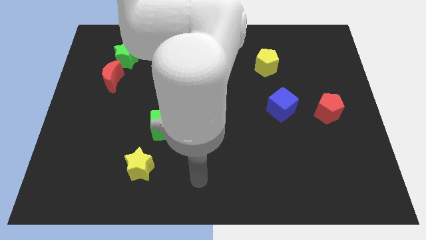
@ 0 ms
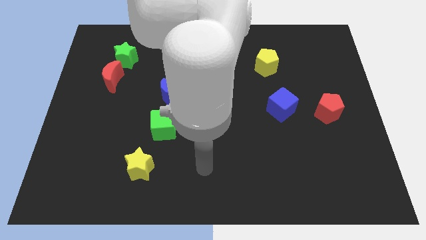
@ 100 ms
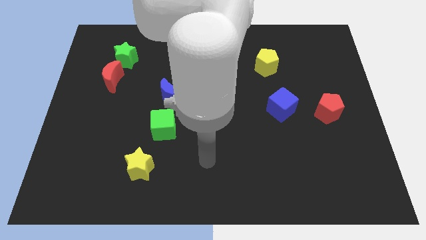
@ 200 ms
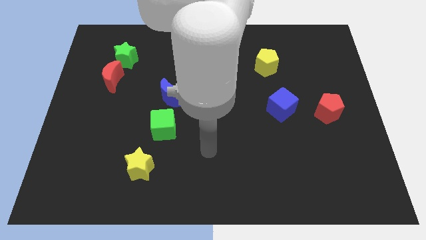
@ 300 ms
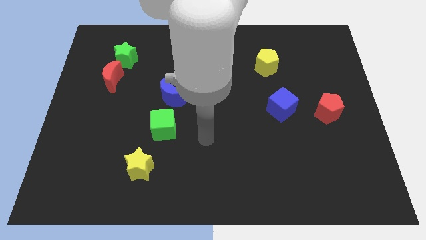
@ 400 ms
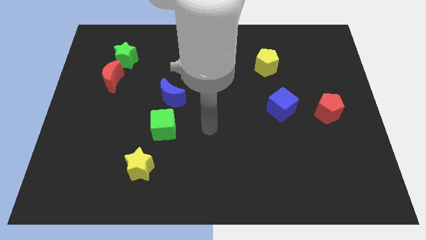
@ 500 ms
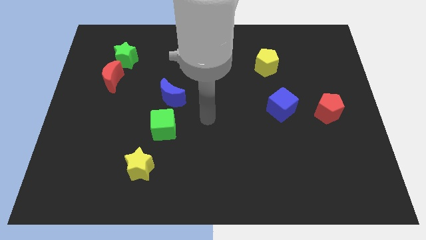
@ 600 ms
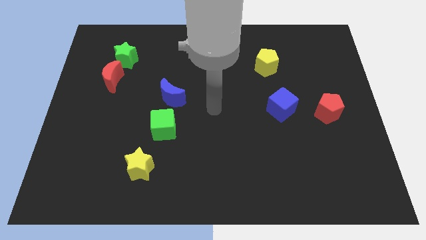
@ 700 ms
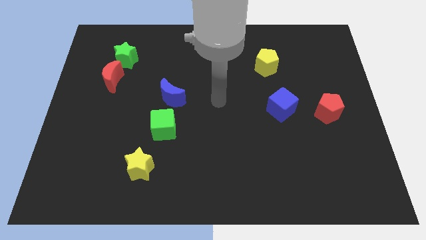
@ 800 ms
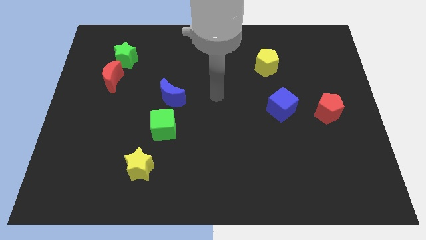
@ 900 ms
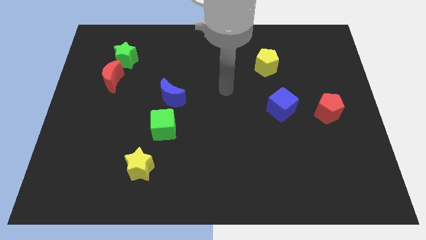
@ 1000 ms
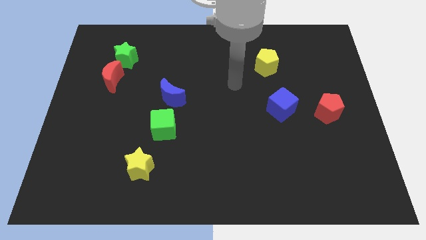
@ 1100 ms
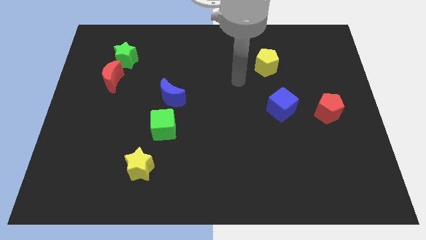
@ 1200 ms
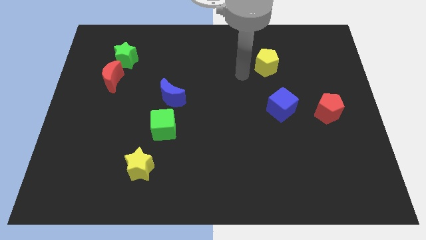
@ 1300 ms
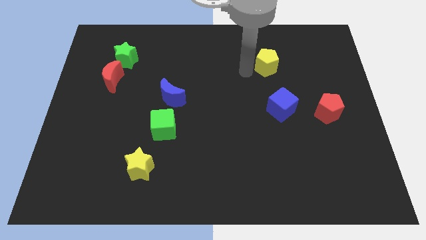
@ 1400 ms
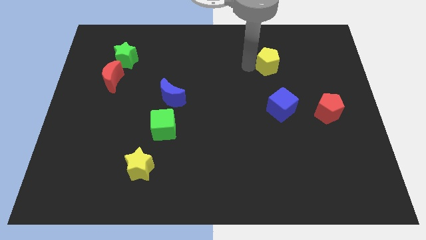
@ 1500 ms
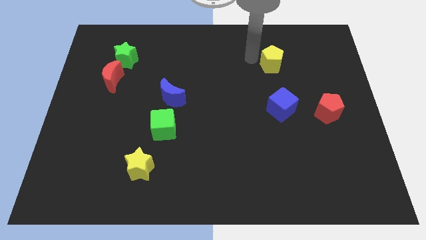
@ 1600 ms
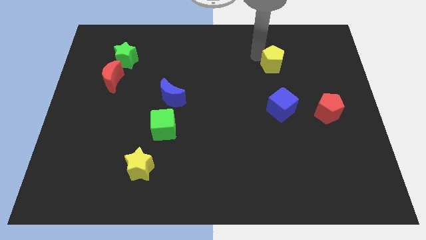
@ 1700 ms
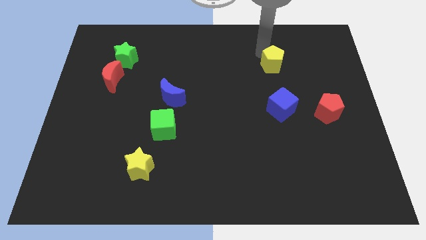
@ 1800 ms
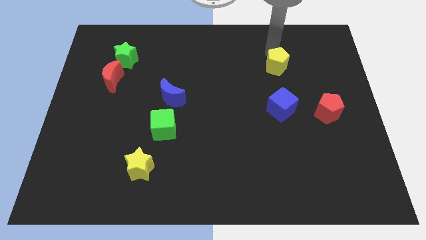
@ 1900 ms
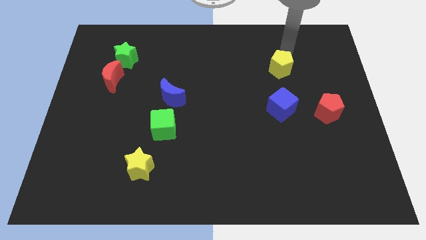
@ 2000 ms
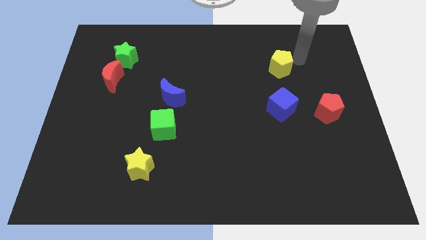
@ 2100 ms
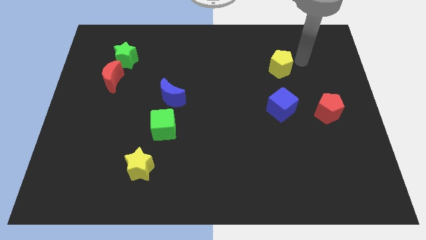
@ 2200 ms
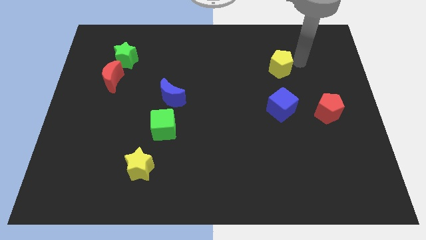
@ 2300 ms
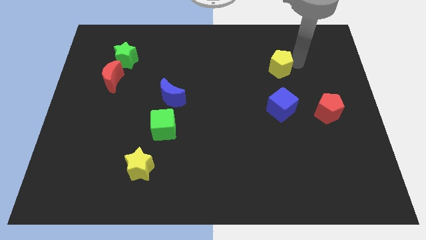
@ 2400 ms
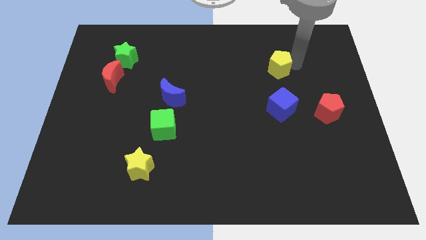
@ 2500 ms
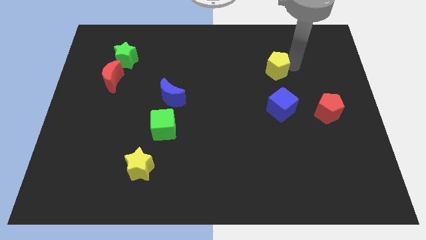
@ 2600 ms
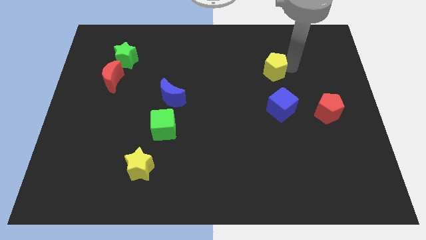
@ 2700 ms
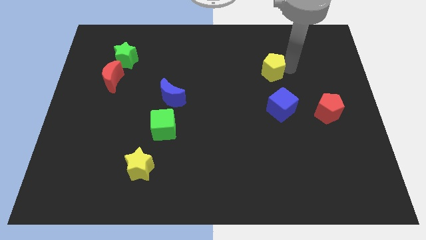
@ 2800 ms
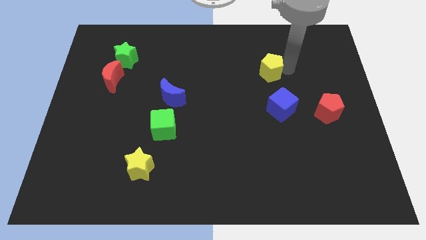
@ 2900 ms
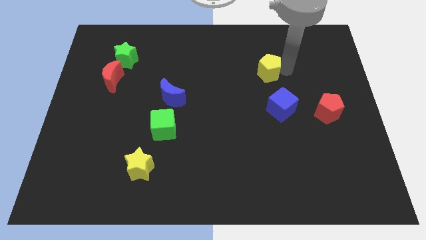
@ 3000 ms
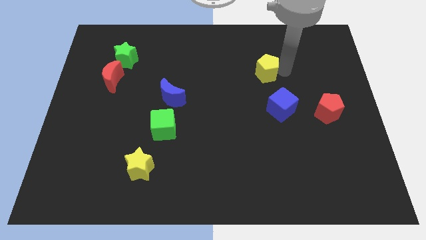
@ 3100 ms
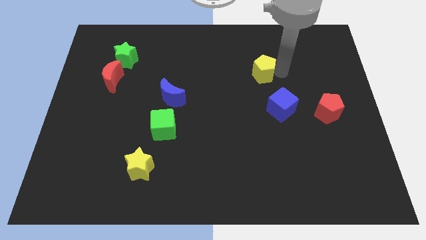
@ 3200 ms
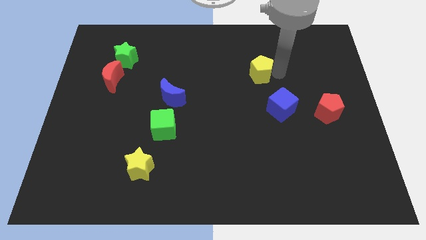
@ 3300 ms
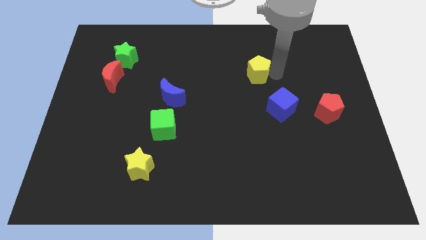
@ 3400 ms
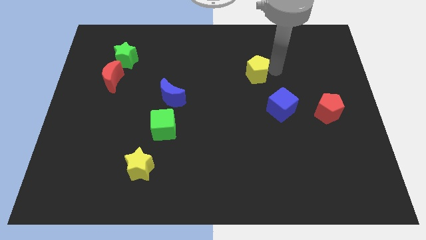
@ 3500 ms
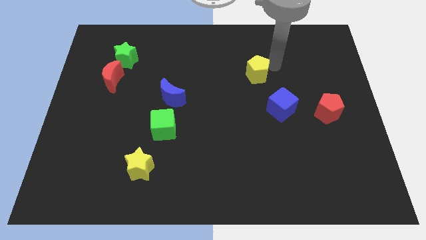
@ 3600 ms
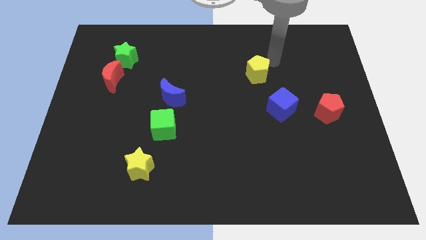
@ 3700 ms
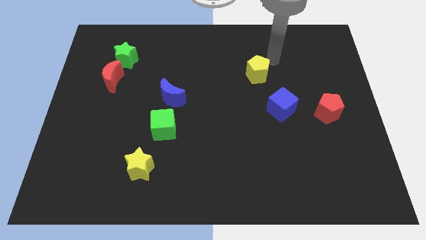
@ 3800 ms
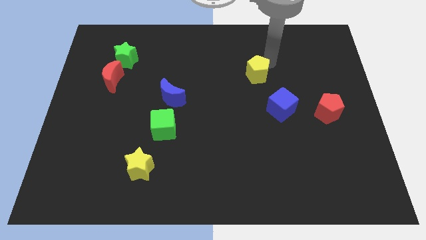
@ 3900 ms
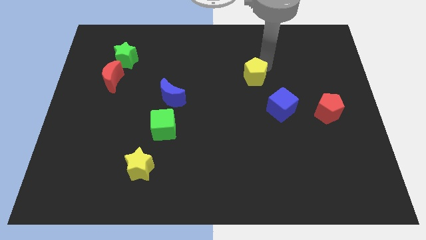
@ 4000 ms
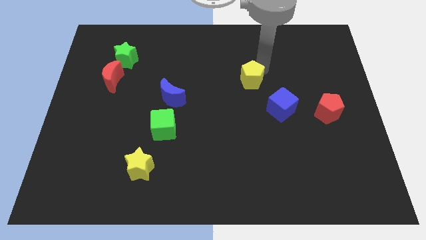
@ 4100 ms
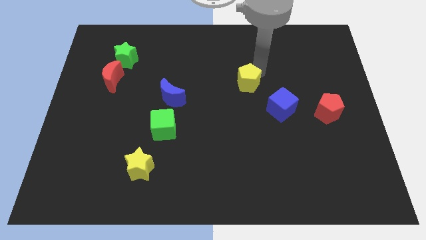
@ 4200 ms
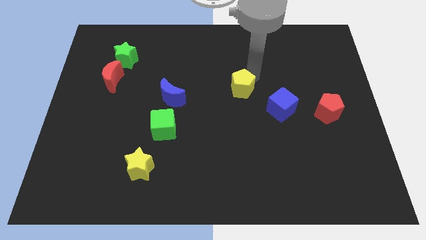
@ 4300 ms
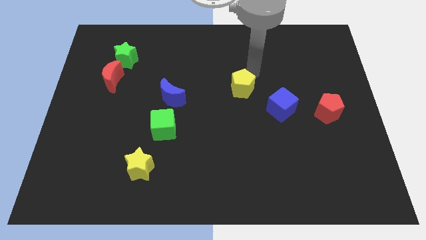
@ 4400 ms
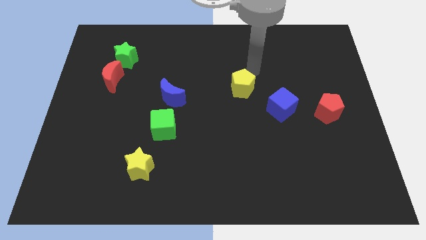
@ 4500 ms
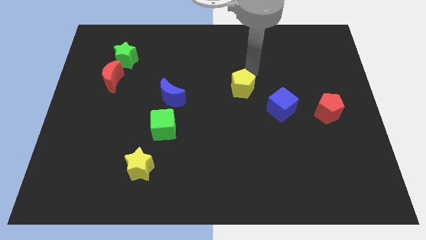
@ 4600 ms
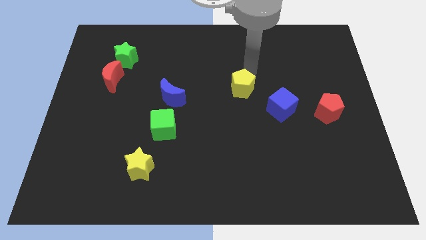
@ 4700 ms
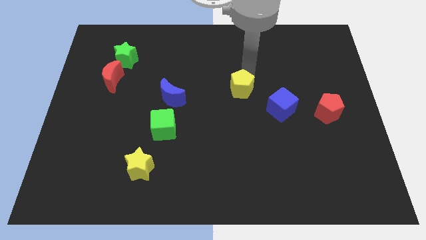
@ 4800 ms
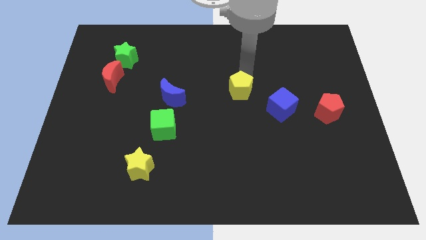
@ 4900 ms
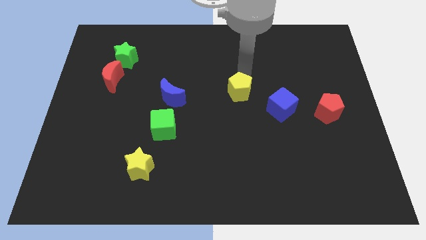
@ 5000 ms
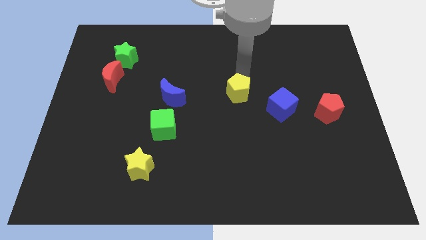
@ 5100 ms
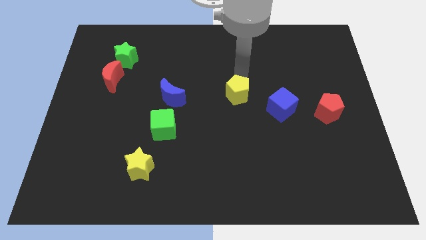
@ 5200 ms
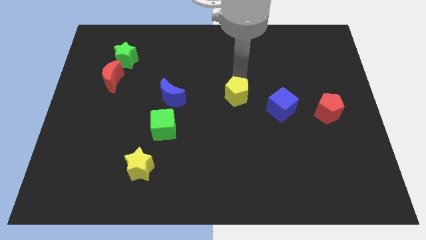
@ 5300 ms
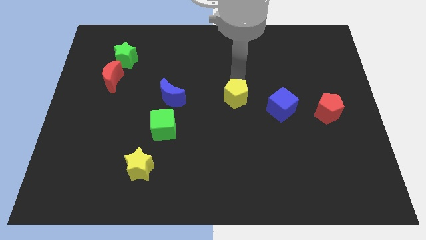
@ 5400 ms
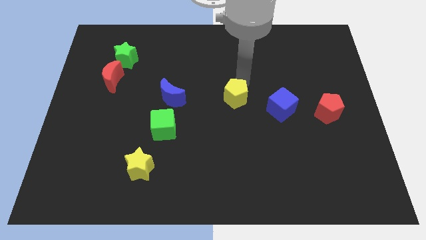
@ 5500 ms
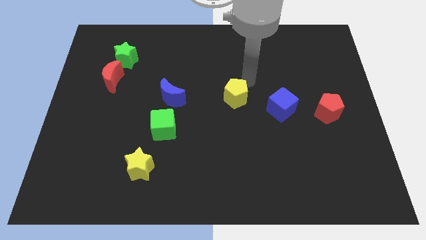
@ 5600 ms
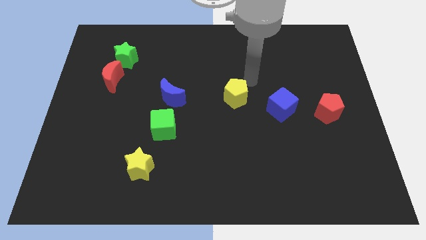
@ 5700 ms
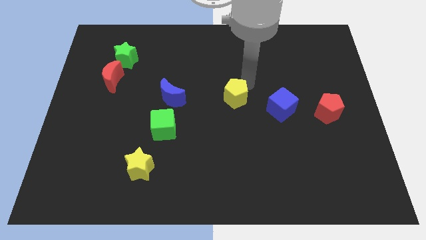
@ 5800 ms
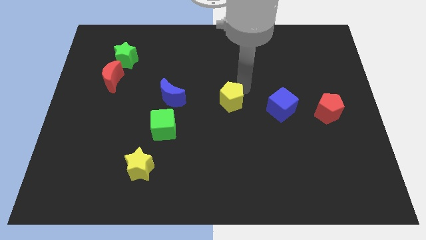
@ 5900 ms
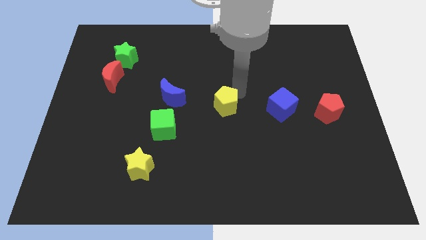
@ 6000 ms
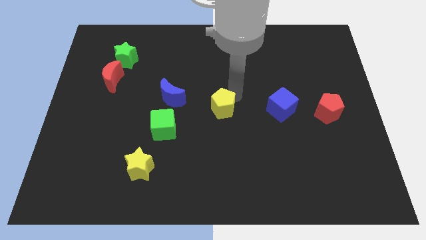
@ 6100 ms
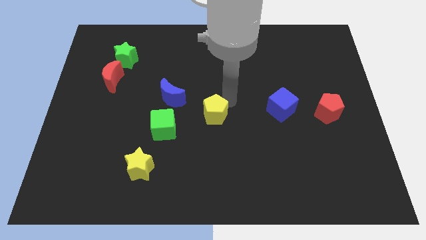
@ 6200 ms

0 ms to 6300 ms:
push the yellow pentagon downwards and then to the left

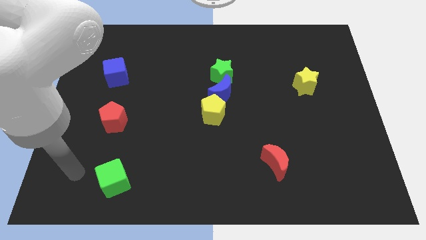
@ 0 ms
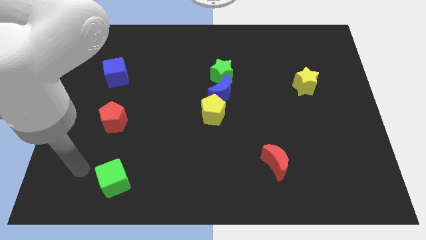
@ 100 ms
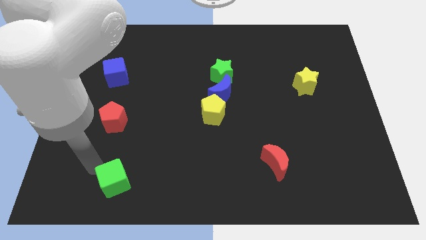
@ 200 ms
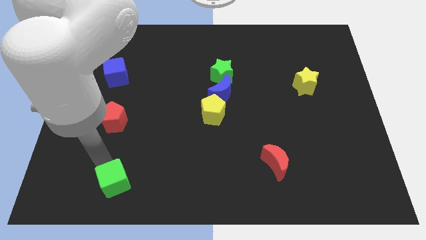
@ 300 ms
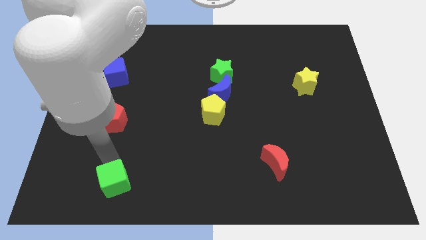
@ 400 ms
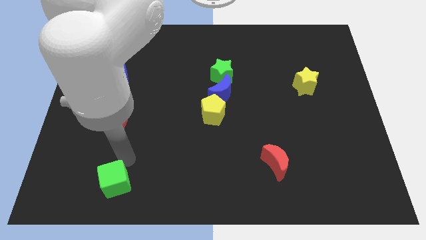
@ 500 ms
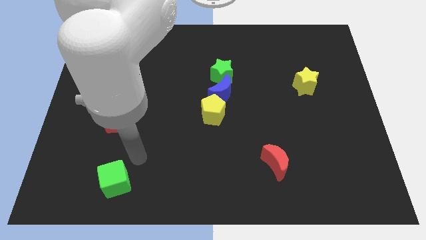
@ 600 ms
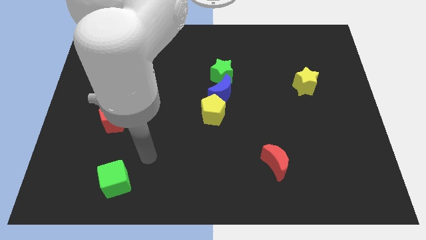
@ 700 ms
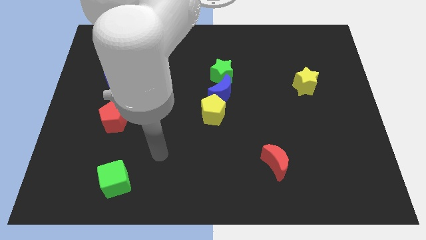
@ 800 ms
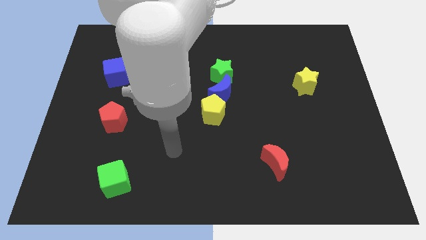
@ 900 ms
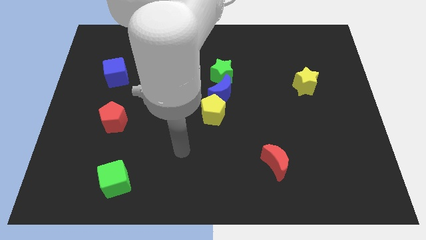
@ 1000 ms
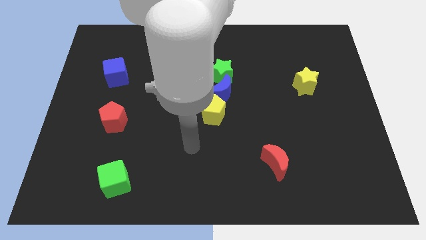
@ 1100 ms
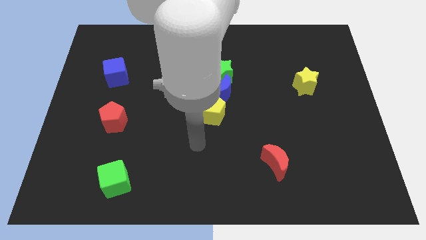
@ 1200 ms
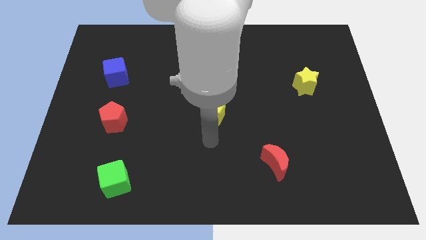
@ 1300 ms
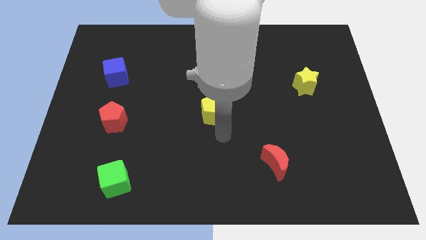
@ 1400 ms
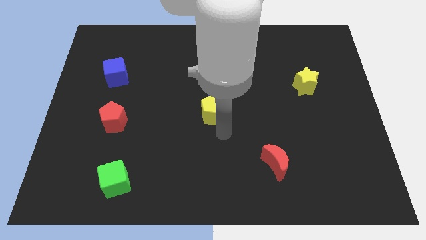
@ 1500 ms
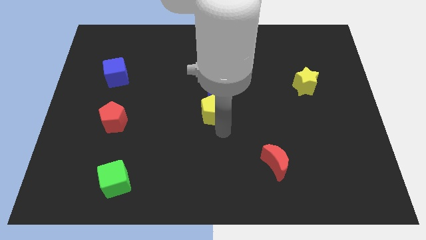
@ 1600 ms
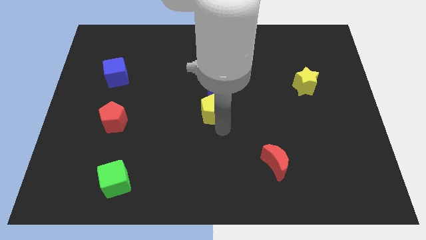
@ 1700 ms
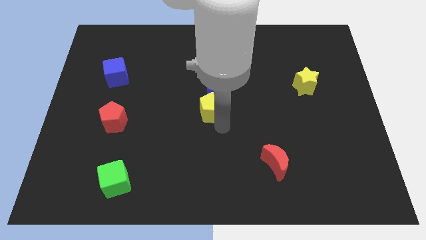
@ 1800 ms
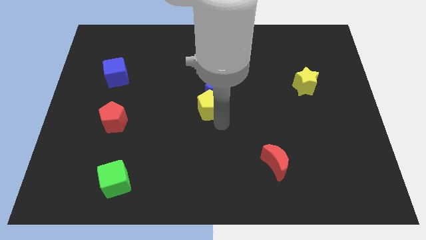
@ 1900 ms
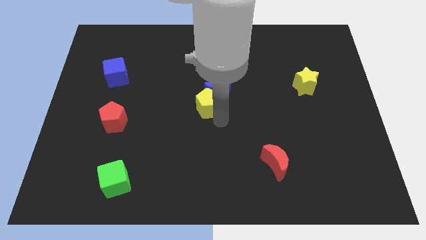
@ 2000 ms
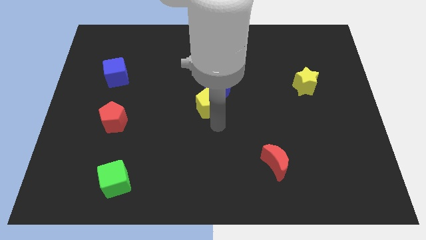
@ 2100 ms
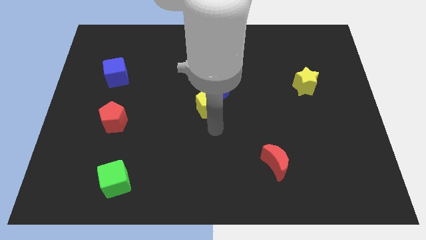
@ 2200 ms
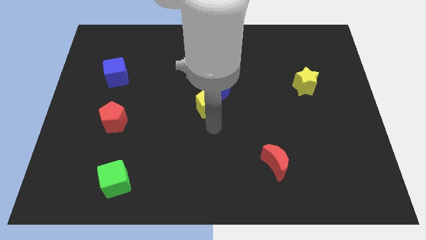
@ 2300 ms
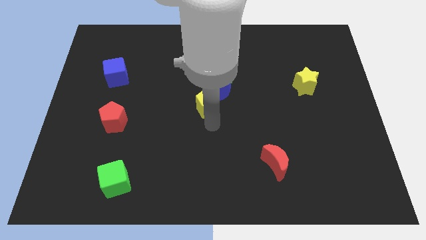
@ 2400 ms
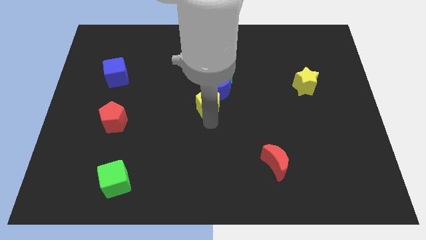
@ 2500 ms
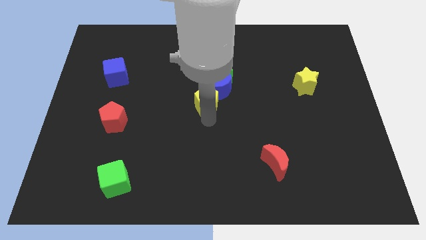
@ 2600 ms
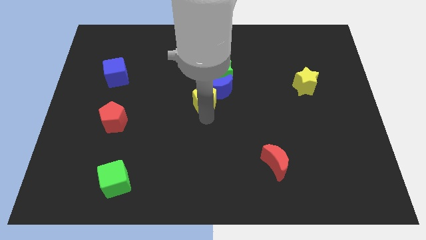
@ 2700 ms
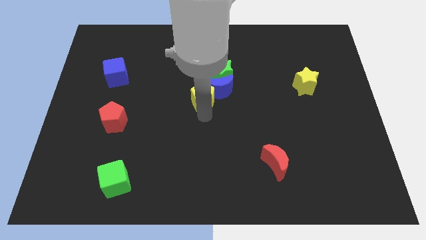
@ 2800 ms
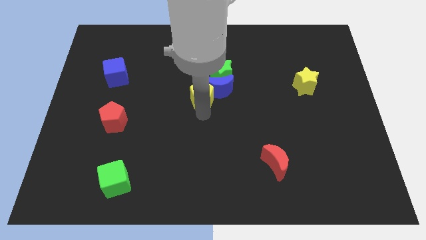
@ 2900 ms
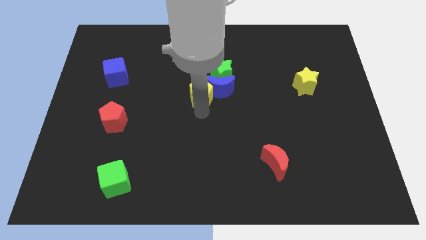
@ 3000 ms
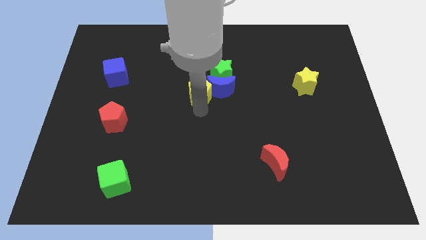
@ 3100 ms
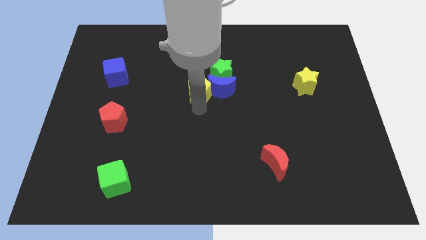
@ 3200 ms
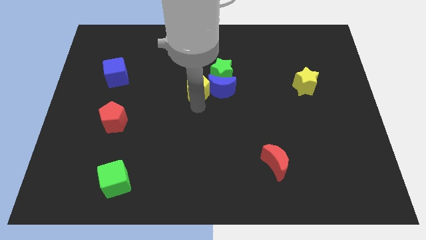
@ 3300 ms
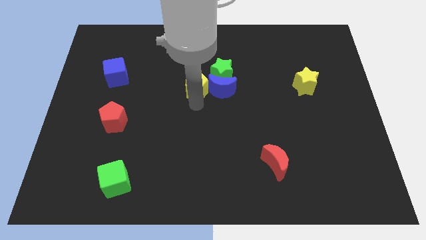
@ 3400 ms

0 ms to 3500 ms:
move the yellow pentagon a little up
